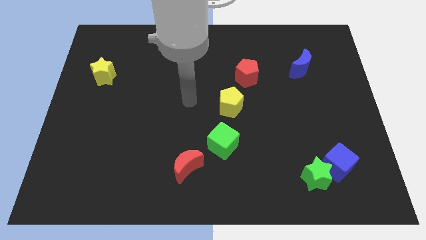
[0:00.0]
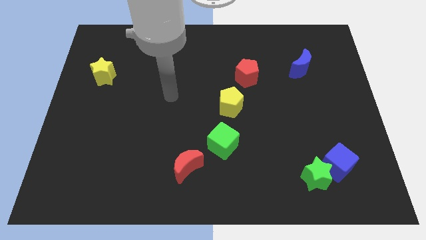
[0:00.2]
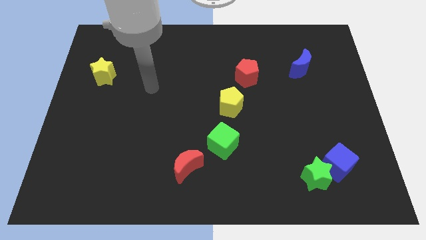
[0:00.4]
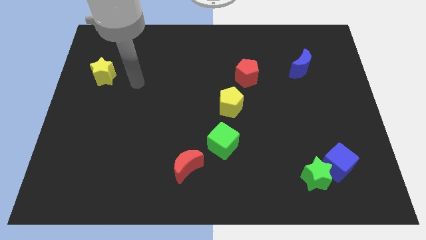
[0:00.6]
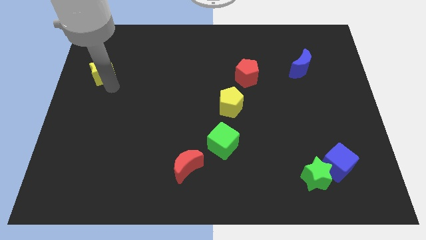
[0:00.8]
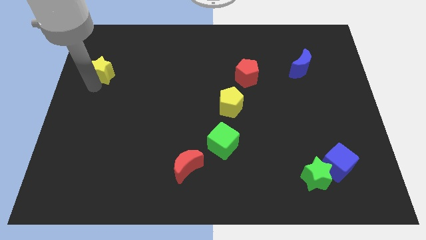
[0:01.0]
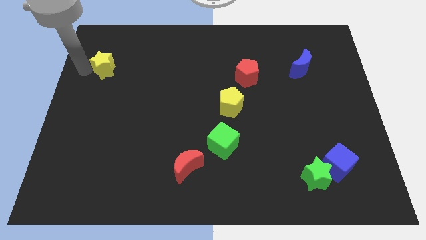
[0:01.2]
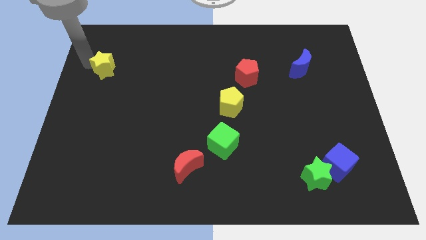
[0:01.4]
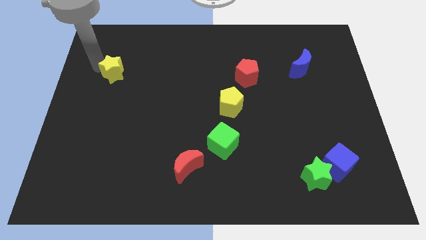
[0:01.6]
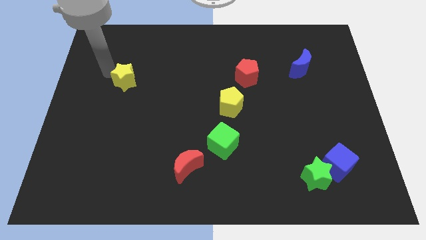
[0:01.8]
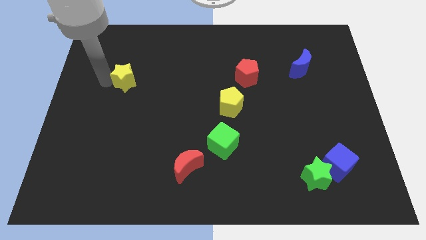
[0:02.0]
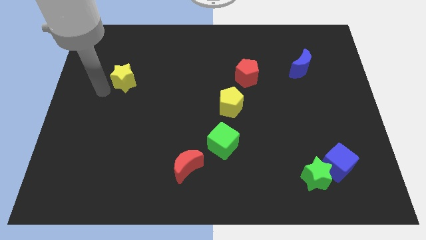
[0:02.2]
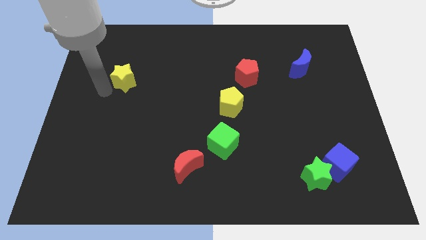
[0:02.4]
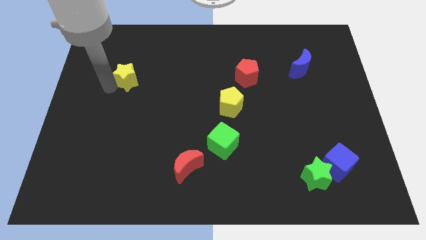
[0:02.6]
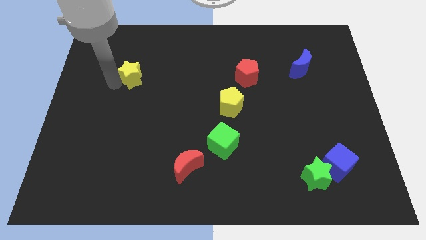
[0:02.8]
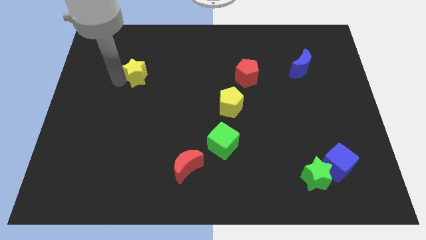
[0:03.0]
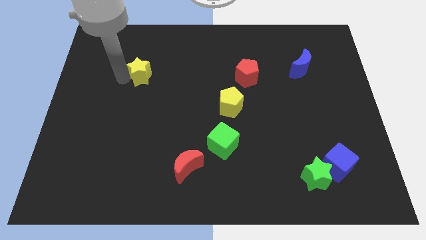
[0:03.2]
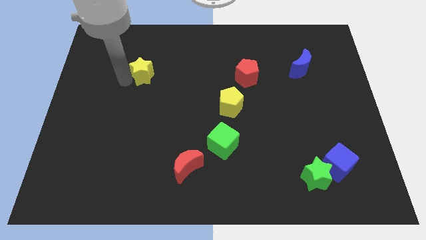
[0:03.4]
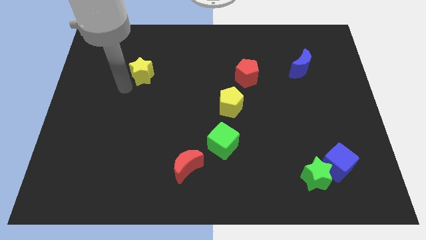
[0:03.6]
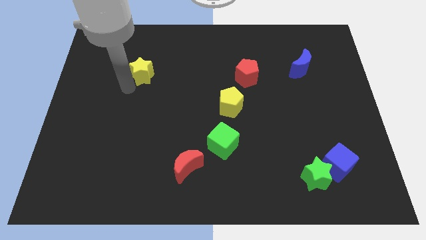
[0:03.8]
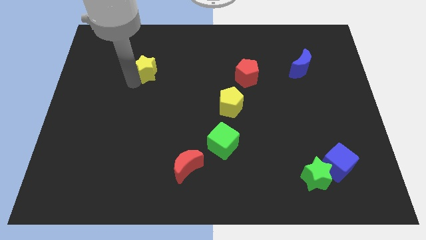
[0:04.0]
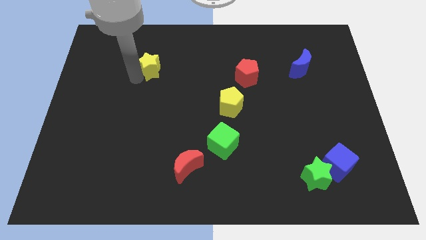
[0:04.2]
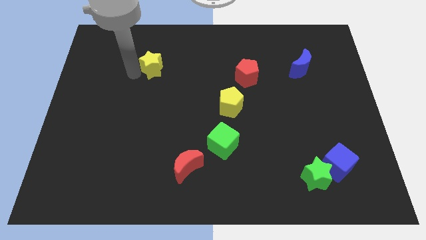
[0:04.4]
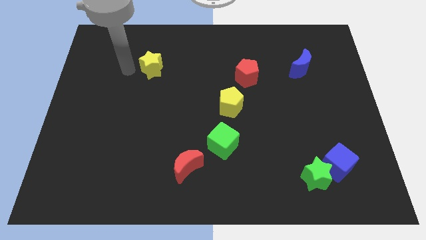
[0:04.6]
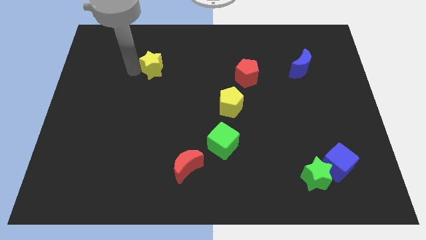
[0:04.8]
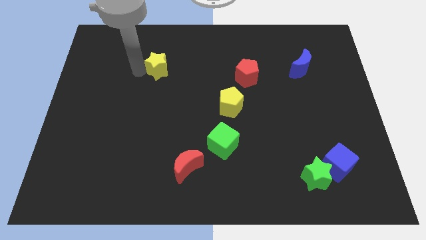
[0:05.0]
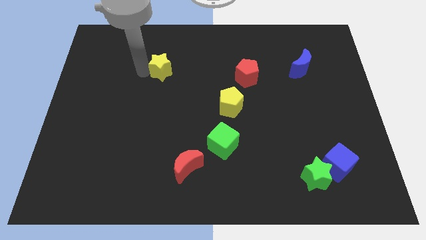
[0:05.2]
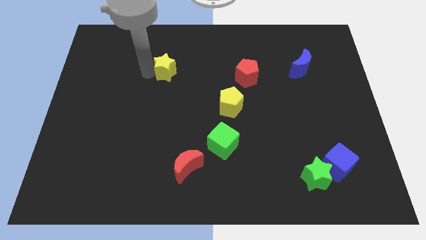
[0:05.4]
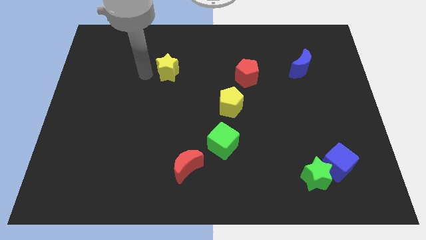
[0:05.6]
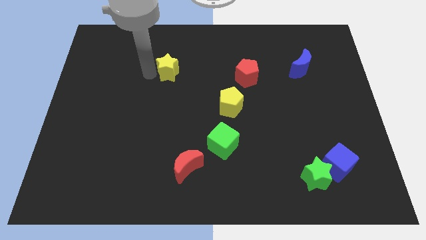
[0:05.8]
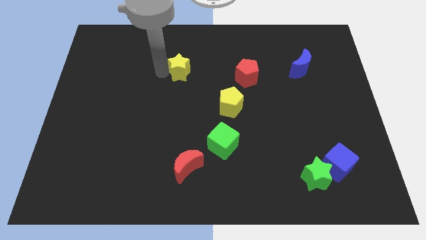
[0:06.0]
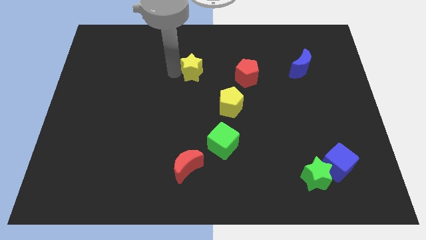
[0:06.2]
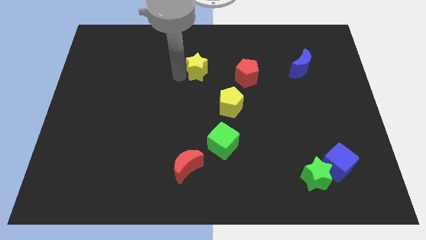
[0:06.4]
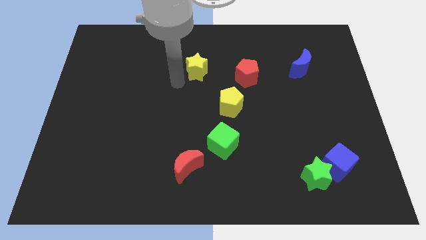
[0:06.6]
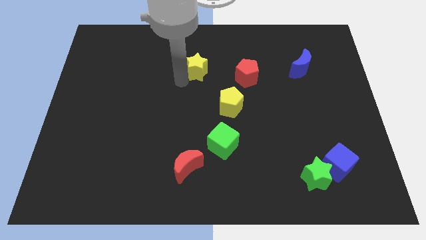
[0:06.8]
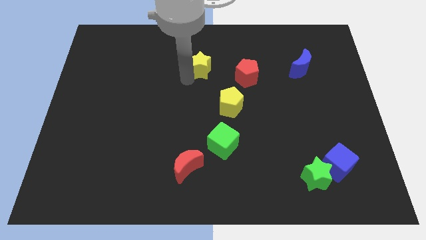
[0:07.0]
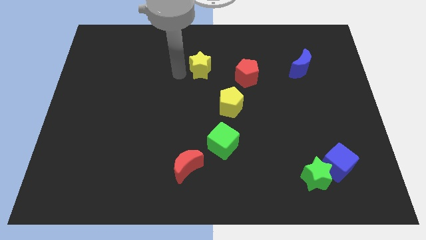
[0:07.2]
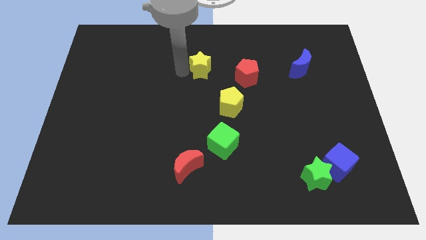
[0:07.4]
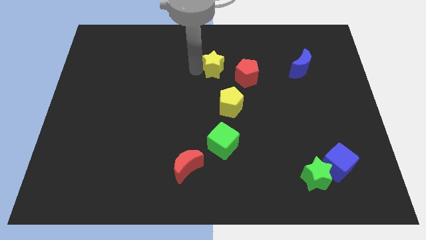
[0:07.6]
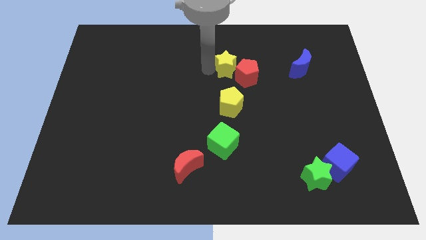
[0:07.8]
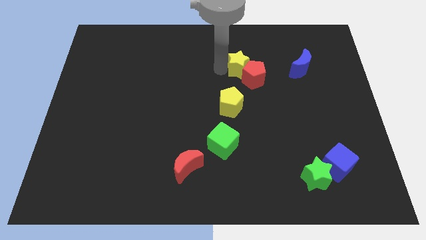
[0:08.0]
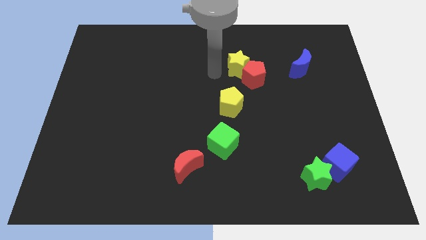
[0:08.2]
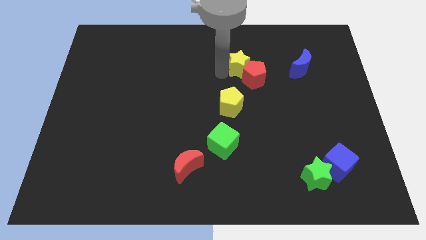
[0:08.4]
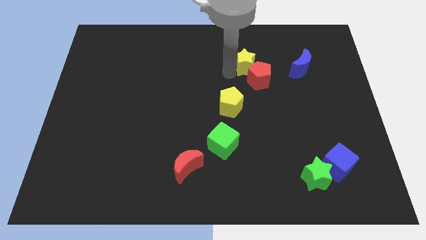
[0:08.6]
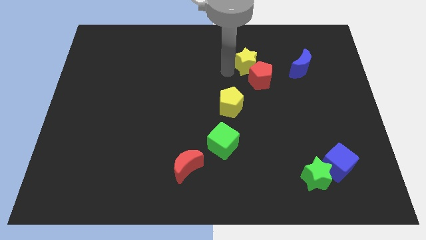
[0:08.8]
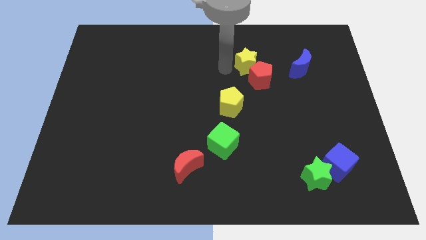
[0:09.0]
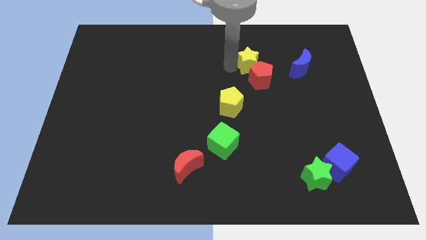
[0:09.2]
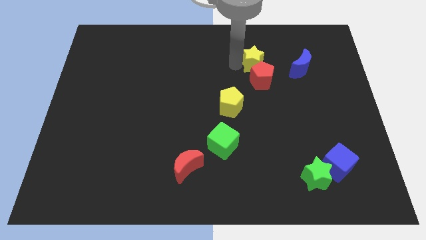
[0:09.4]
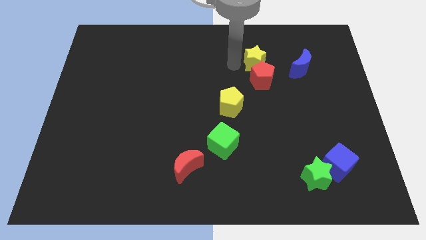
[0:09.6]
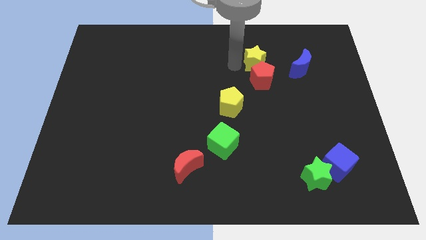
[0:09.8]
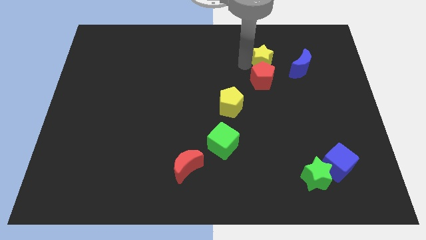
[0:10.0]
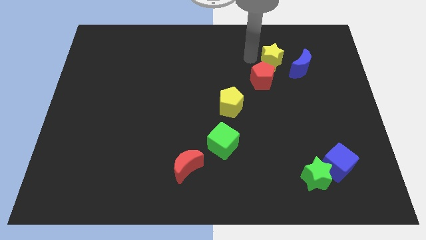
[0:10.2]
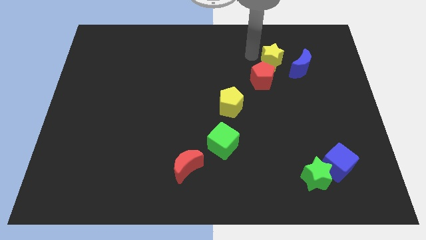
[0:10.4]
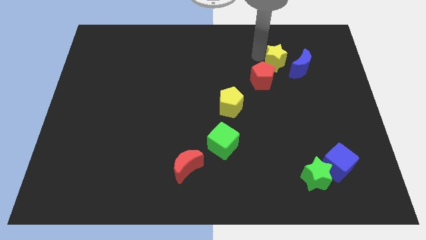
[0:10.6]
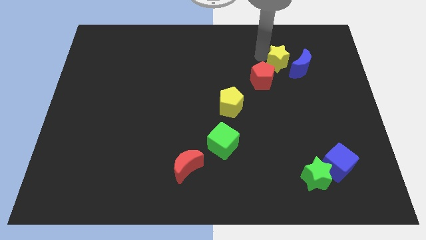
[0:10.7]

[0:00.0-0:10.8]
move the yellow star to the blue moon

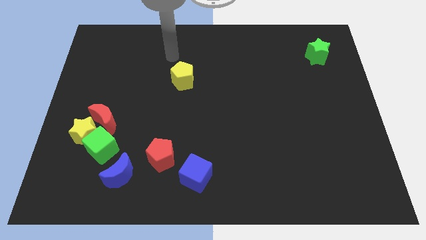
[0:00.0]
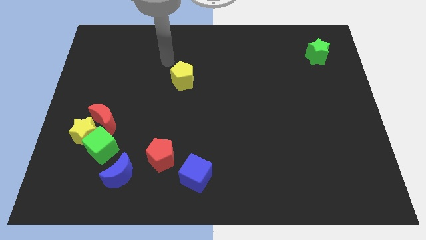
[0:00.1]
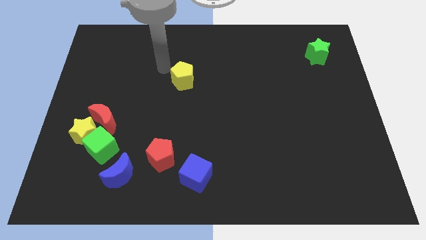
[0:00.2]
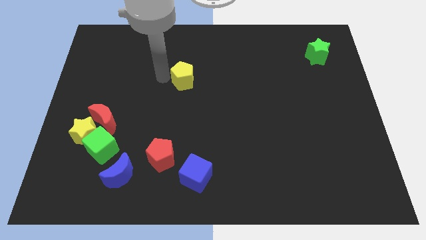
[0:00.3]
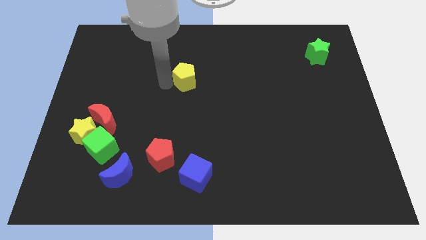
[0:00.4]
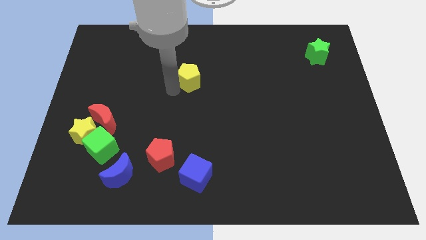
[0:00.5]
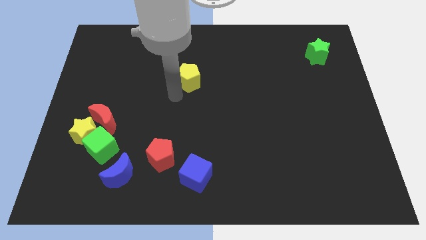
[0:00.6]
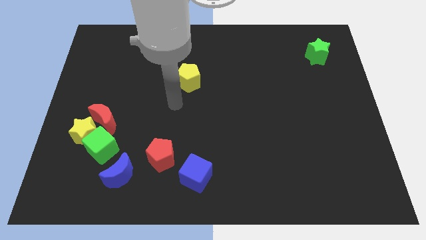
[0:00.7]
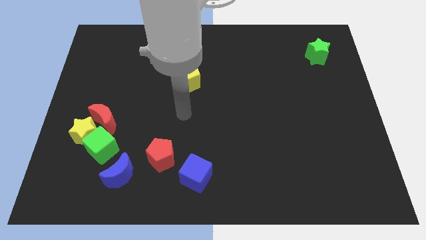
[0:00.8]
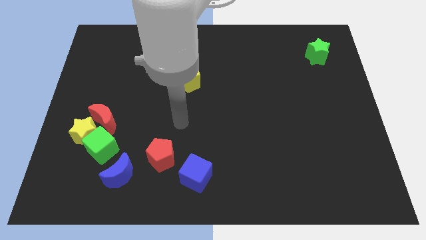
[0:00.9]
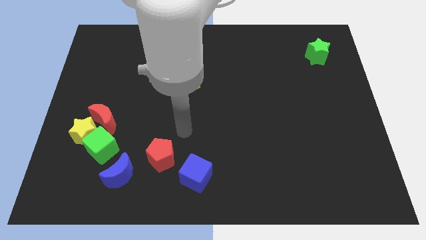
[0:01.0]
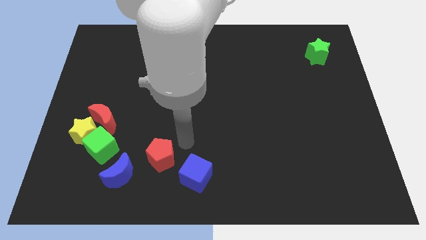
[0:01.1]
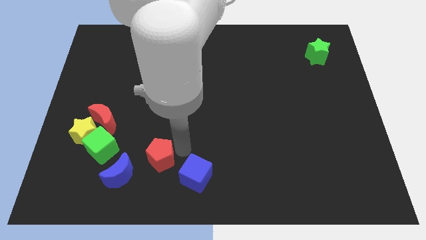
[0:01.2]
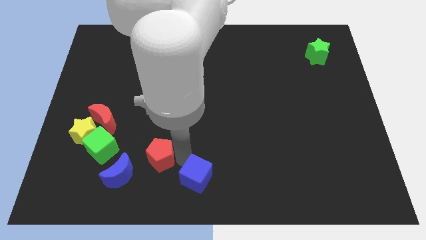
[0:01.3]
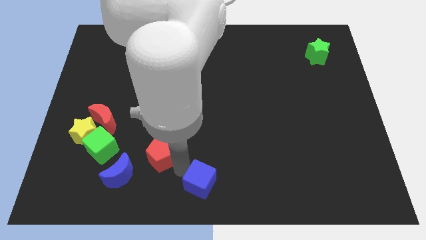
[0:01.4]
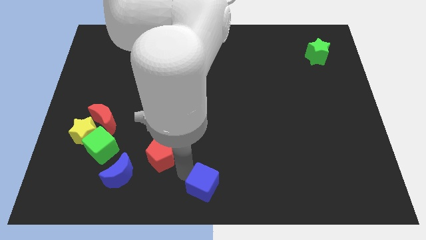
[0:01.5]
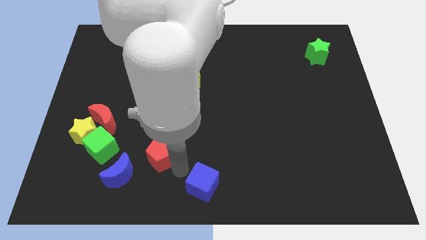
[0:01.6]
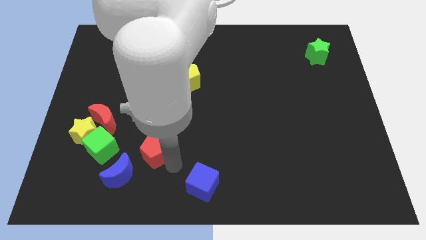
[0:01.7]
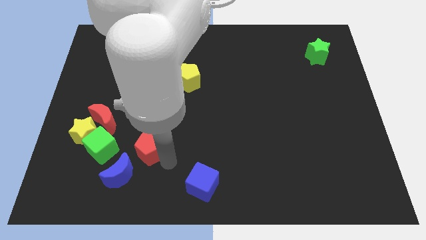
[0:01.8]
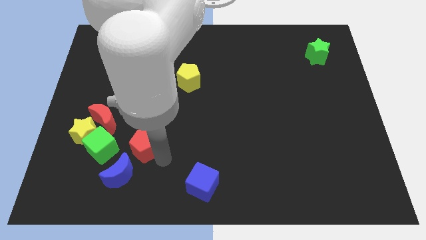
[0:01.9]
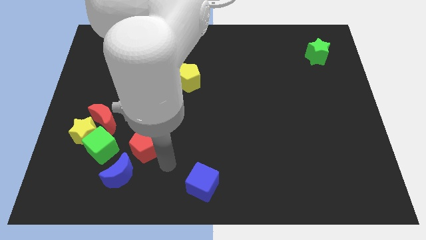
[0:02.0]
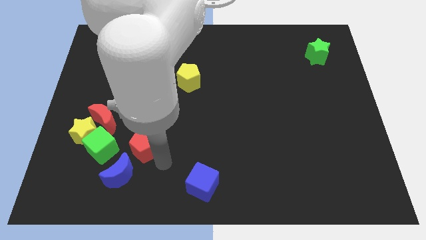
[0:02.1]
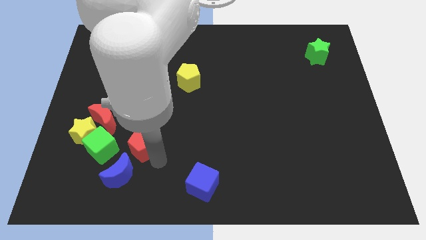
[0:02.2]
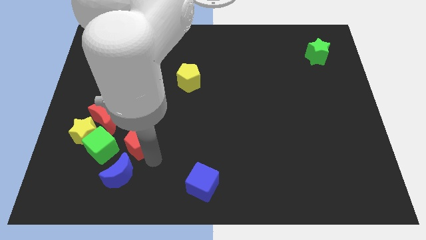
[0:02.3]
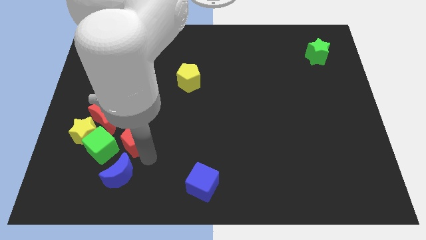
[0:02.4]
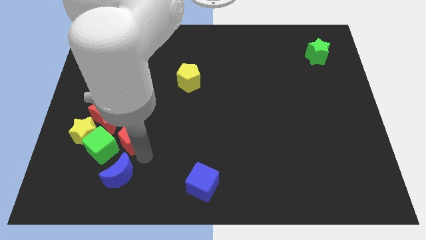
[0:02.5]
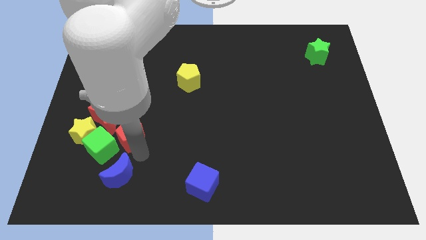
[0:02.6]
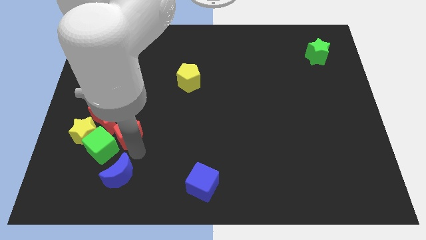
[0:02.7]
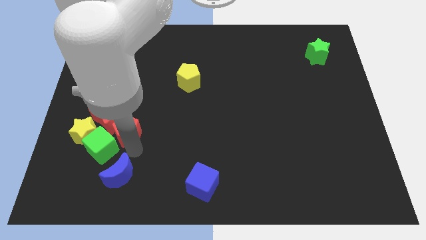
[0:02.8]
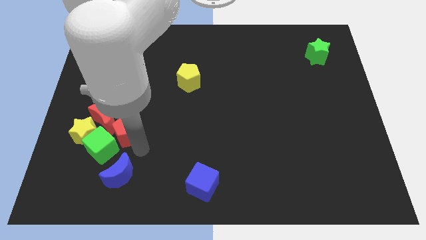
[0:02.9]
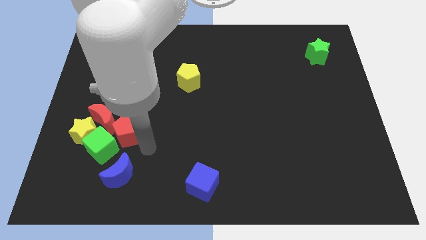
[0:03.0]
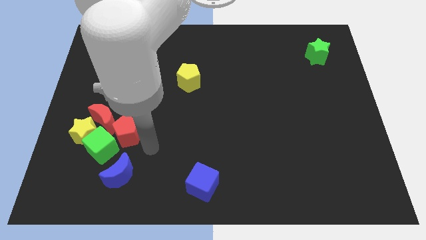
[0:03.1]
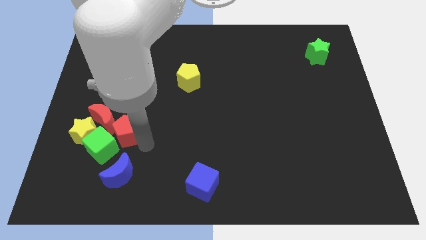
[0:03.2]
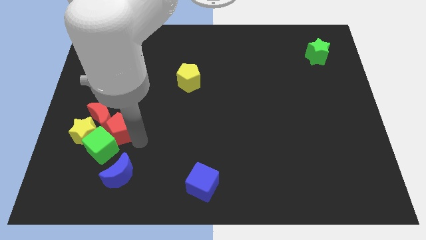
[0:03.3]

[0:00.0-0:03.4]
put the red pentagon to the red moon

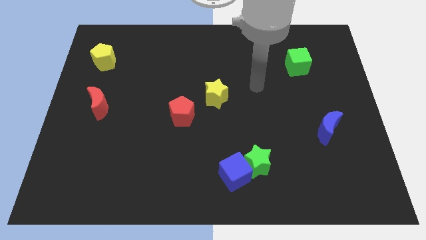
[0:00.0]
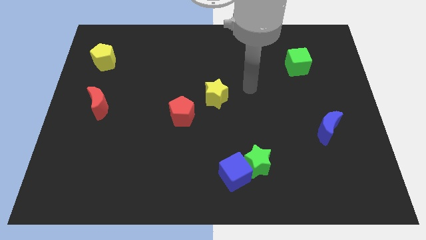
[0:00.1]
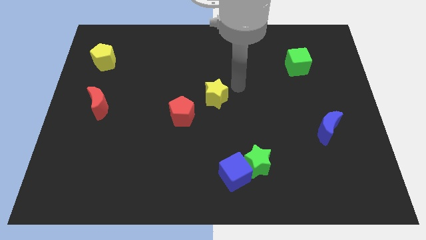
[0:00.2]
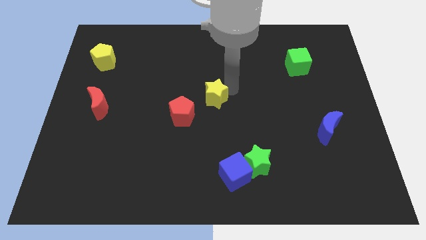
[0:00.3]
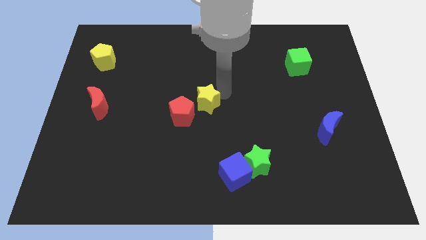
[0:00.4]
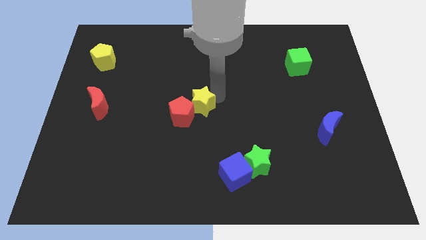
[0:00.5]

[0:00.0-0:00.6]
push the yellow star towards the red pentagon
